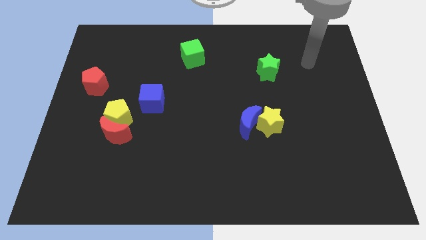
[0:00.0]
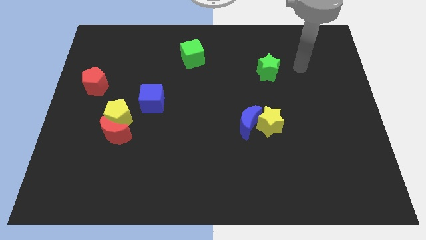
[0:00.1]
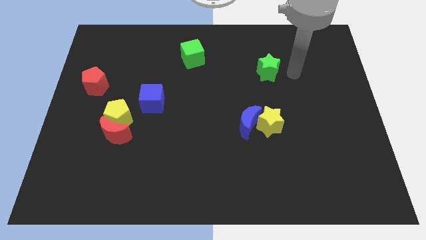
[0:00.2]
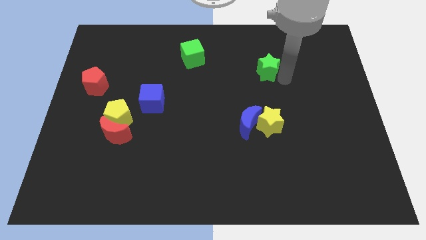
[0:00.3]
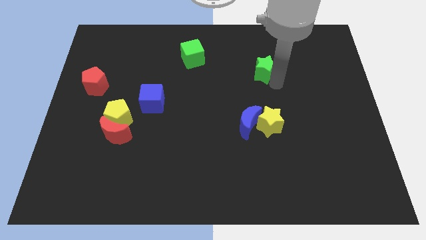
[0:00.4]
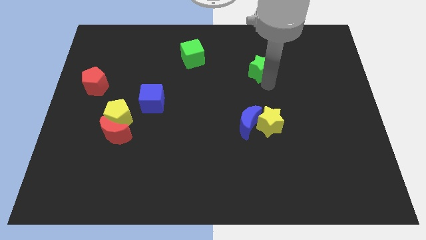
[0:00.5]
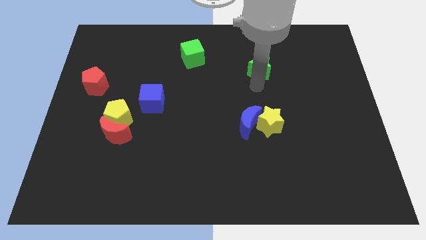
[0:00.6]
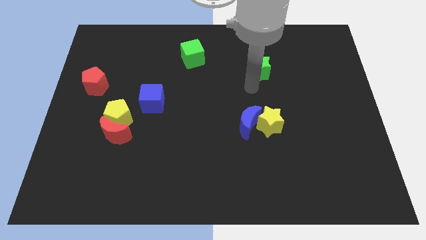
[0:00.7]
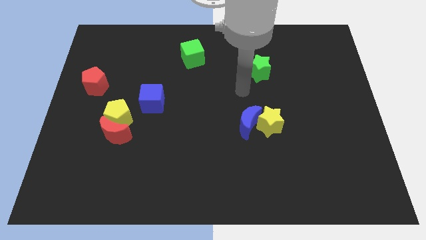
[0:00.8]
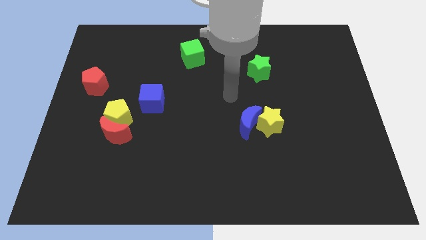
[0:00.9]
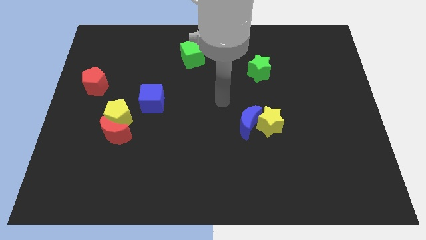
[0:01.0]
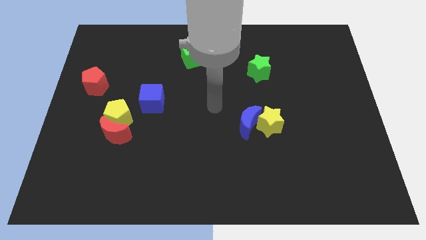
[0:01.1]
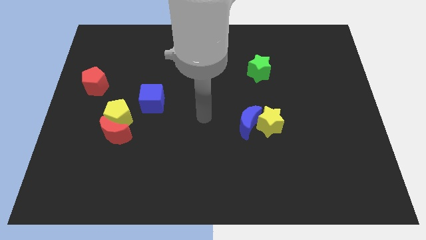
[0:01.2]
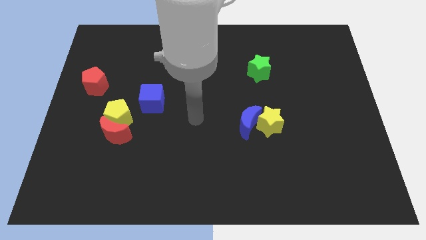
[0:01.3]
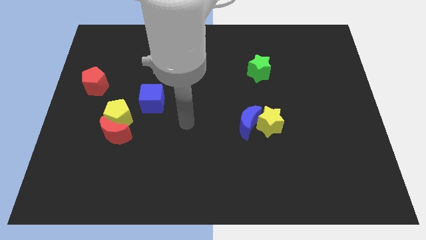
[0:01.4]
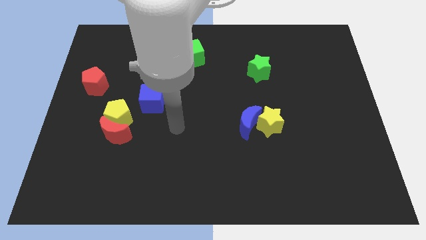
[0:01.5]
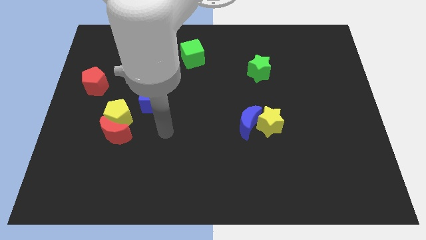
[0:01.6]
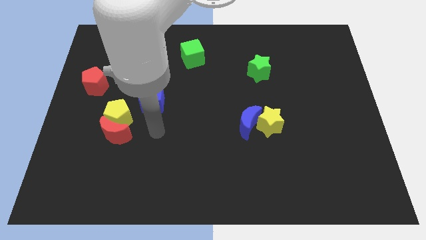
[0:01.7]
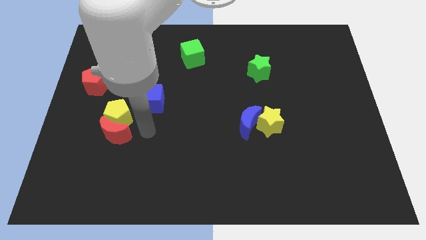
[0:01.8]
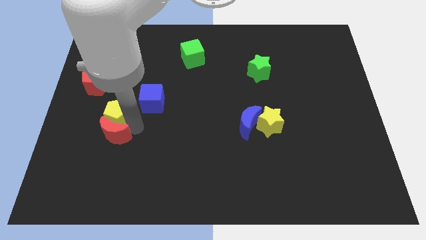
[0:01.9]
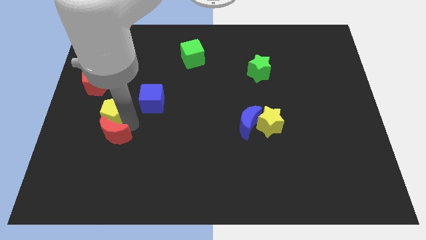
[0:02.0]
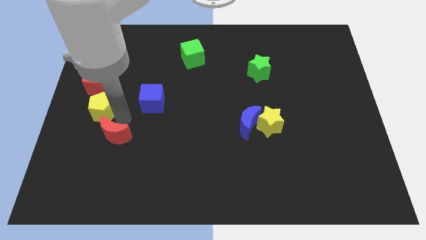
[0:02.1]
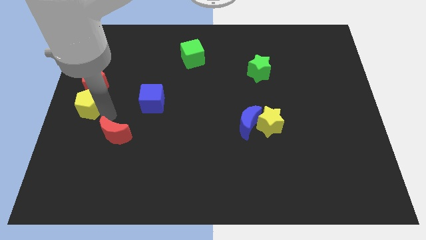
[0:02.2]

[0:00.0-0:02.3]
separate the red moon from the yellow pentagon

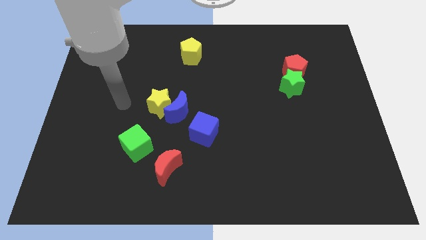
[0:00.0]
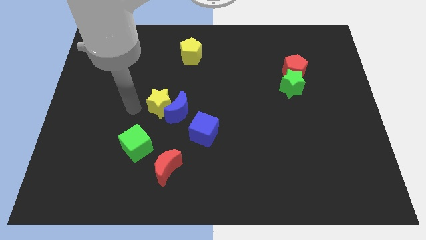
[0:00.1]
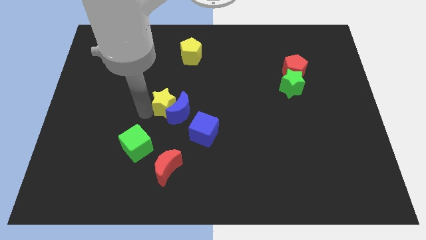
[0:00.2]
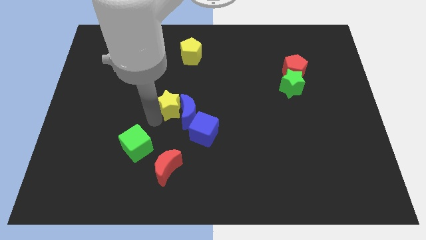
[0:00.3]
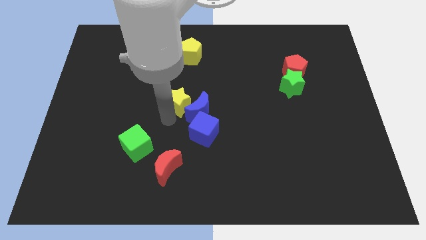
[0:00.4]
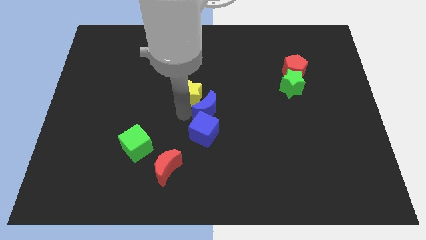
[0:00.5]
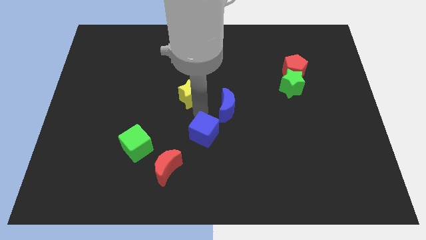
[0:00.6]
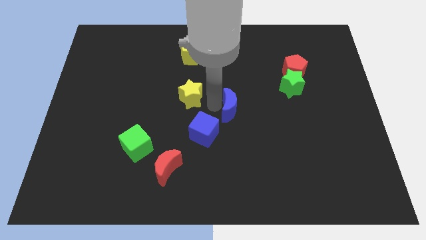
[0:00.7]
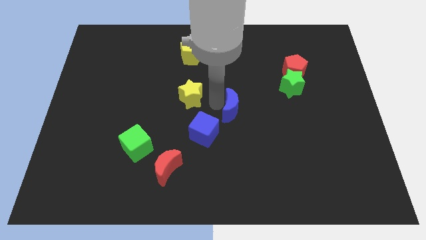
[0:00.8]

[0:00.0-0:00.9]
move the yellow star away from the blue moon

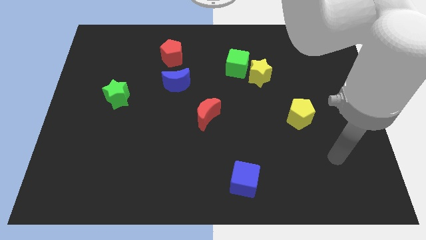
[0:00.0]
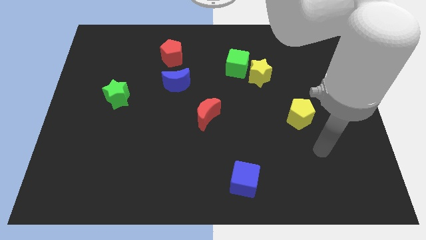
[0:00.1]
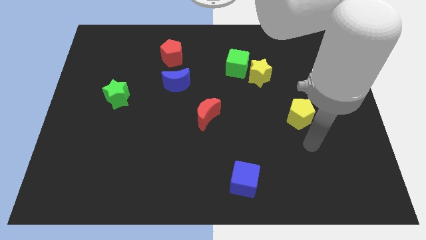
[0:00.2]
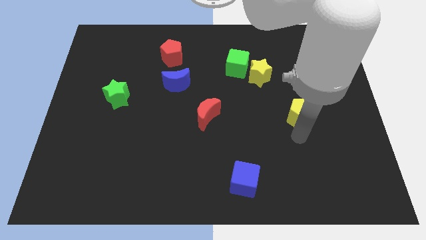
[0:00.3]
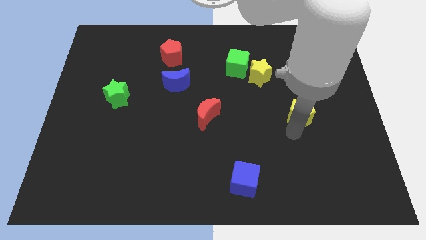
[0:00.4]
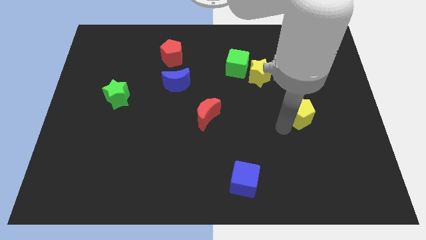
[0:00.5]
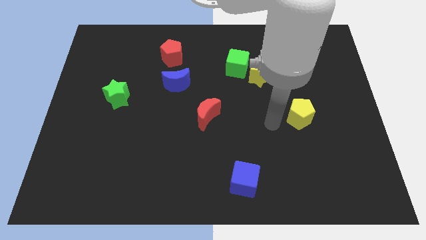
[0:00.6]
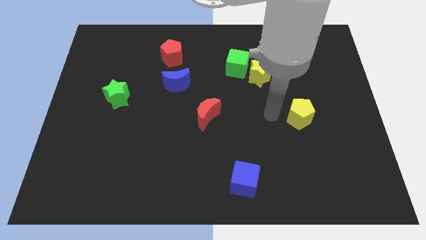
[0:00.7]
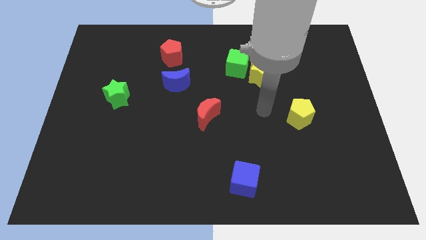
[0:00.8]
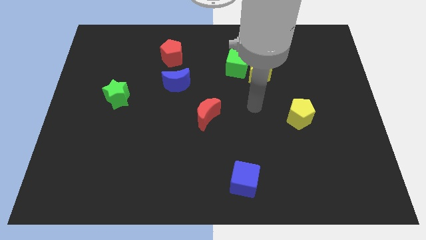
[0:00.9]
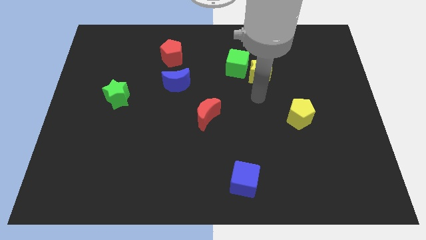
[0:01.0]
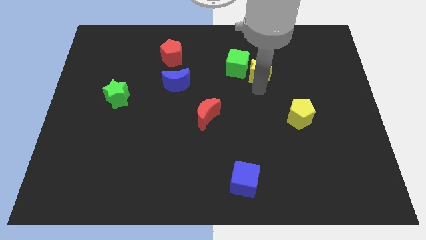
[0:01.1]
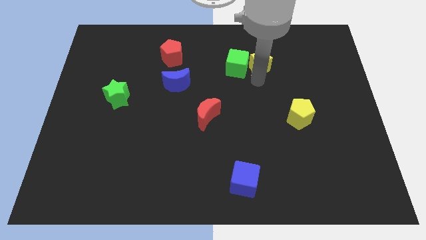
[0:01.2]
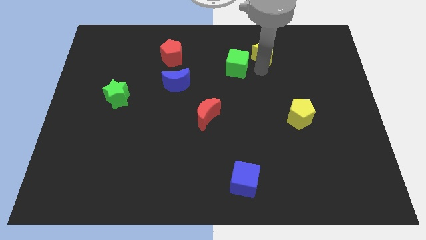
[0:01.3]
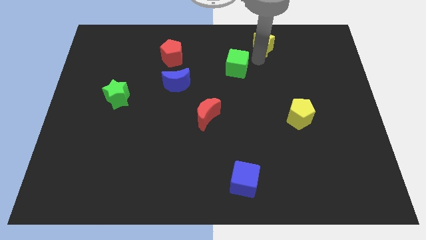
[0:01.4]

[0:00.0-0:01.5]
move the green cube away from the yellow star

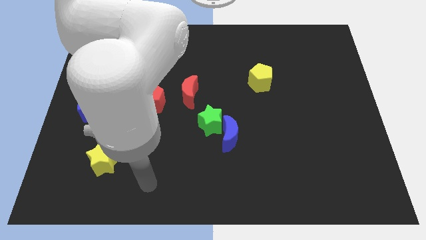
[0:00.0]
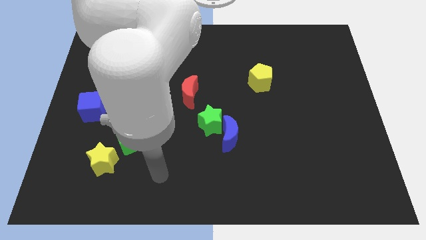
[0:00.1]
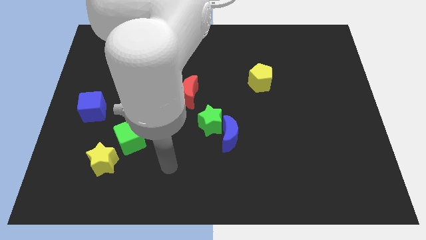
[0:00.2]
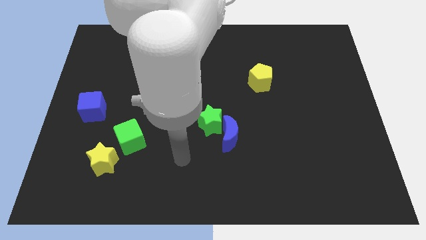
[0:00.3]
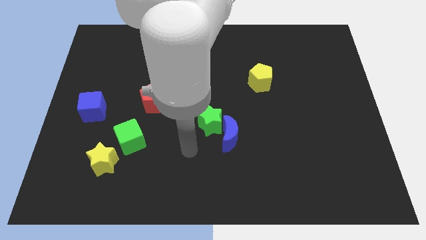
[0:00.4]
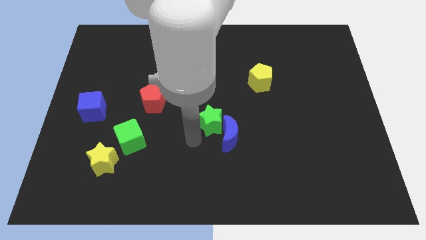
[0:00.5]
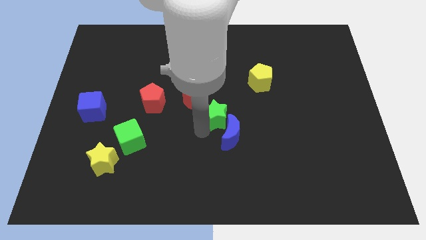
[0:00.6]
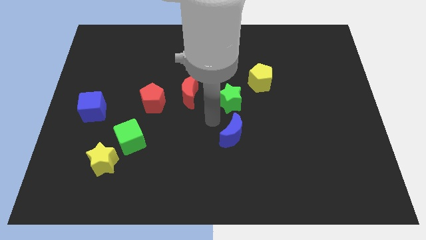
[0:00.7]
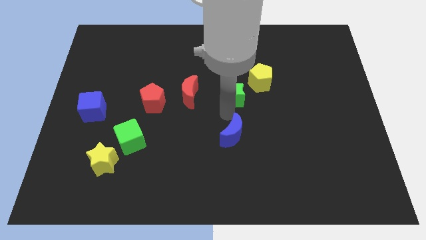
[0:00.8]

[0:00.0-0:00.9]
pull the blue moon apart from the green star

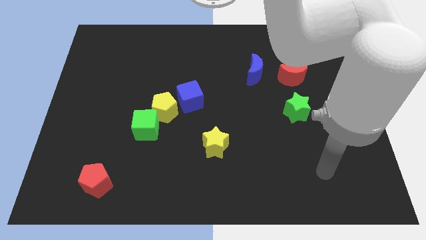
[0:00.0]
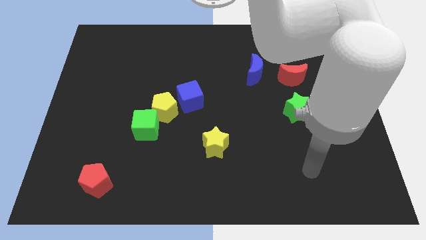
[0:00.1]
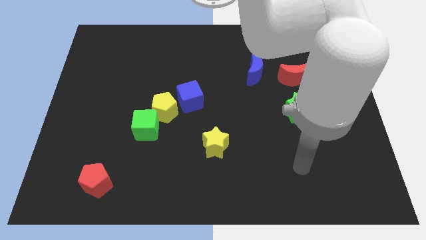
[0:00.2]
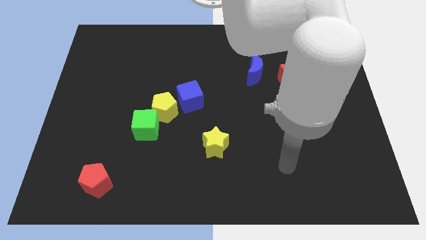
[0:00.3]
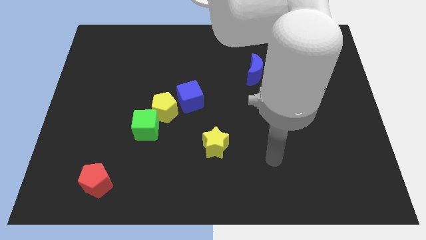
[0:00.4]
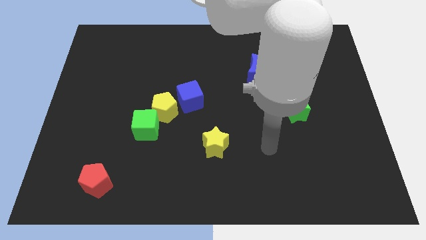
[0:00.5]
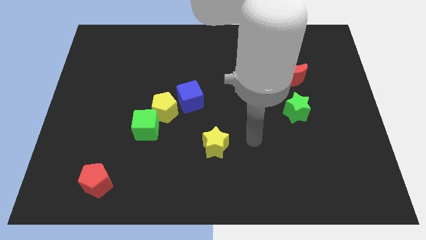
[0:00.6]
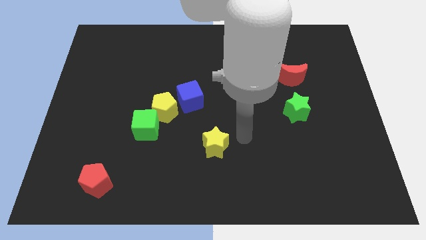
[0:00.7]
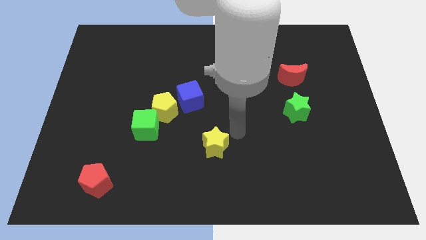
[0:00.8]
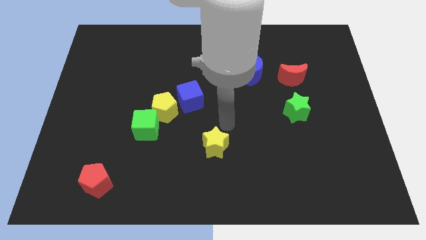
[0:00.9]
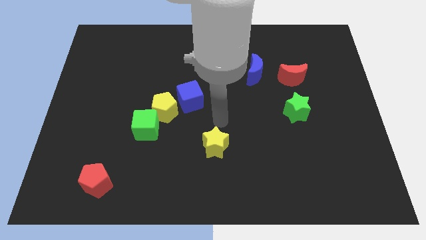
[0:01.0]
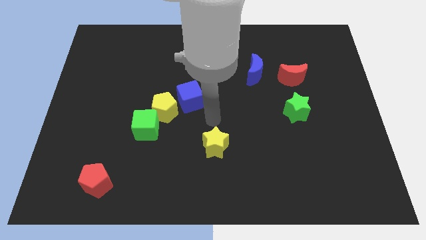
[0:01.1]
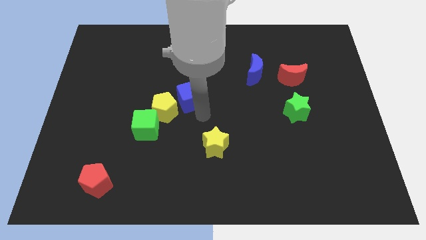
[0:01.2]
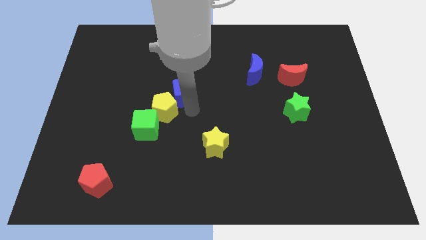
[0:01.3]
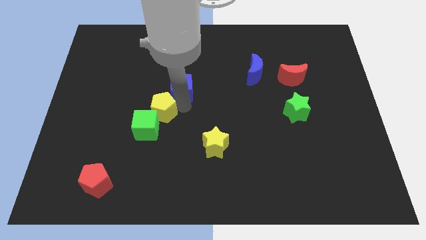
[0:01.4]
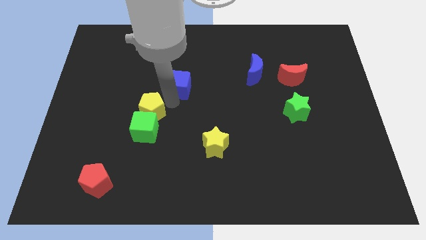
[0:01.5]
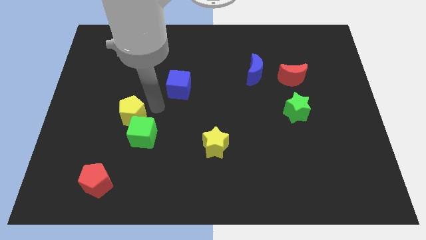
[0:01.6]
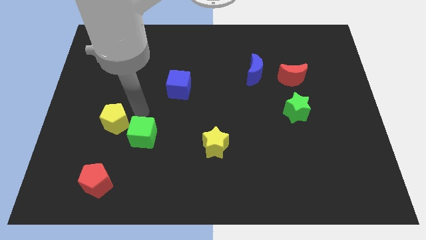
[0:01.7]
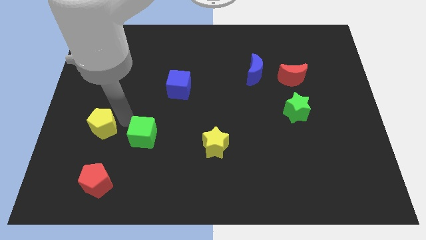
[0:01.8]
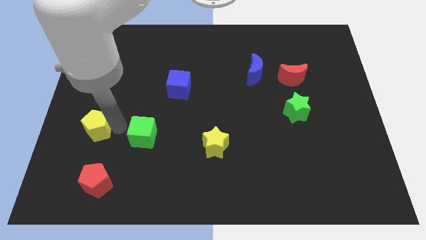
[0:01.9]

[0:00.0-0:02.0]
move the green cube away from the yellow pentagon

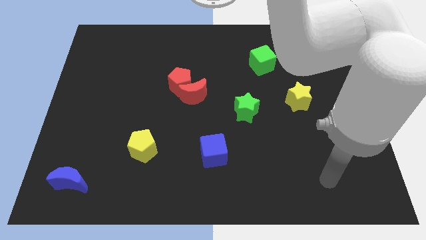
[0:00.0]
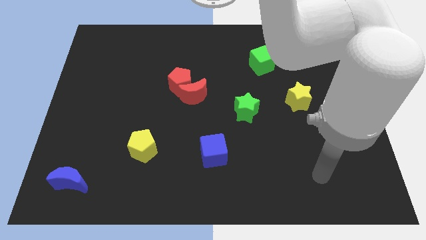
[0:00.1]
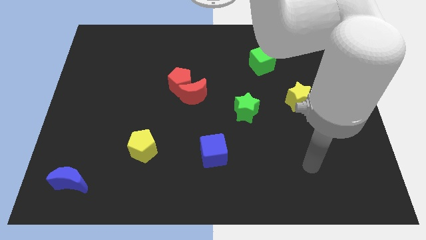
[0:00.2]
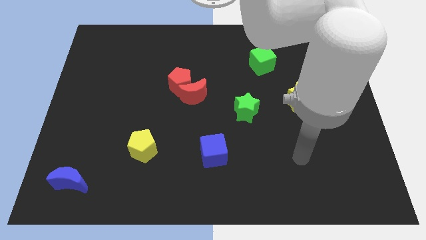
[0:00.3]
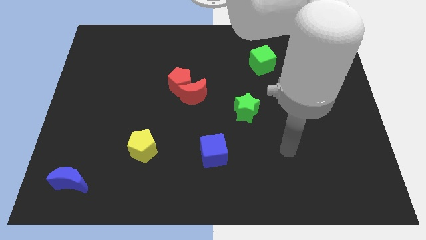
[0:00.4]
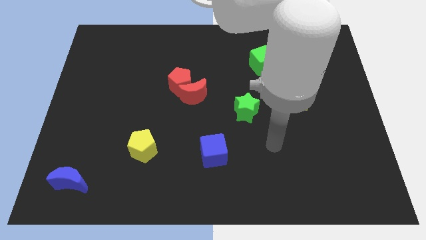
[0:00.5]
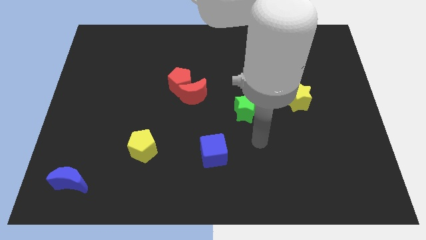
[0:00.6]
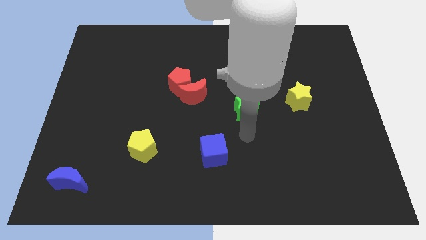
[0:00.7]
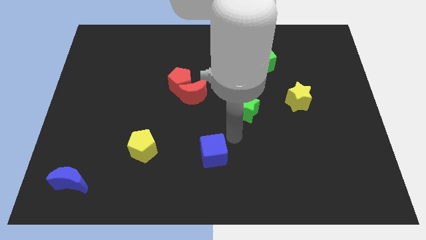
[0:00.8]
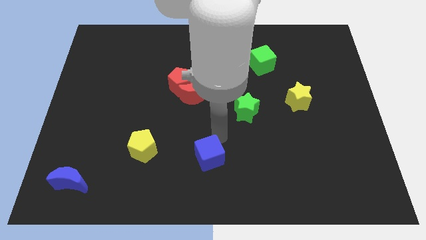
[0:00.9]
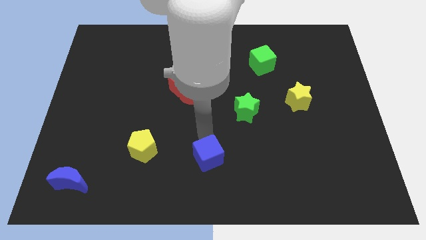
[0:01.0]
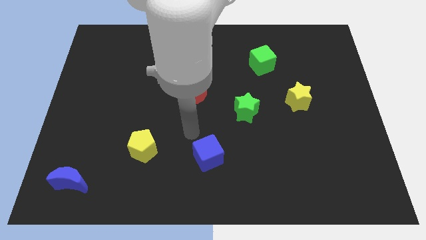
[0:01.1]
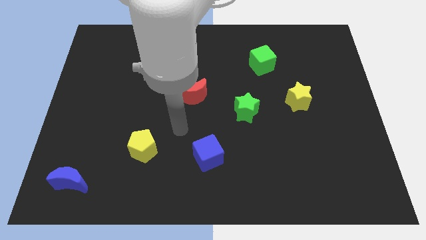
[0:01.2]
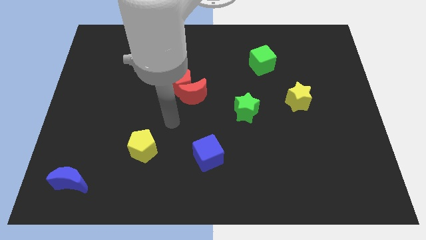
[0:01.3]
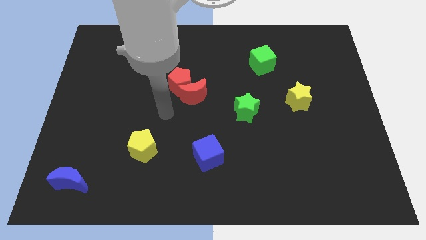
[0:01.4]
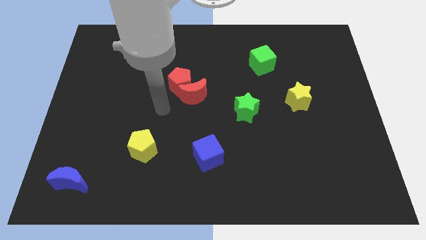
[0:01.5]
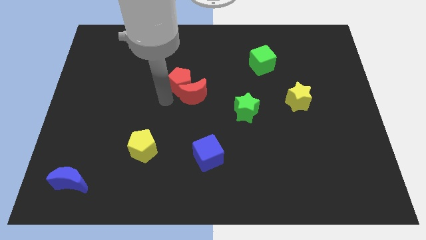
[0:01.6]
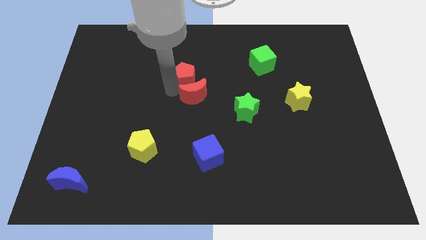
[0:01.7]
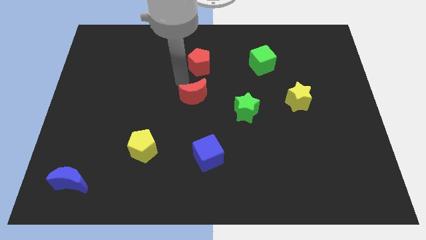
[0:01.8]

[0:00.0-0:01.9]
move the red moon away from the red pentagon

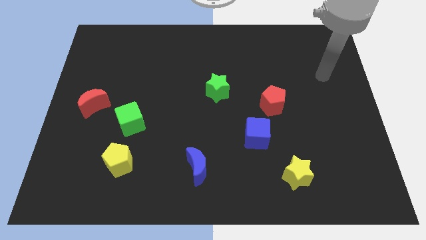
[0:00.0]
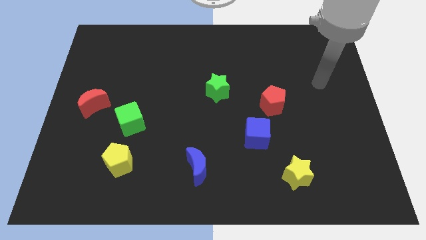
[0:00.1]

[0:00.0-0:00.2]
pull the red pentagon apart from the blue cube
